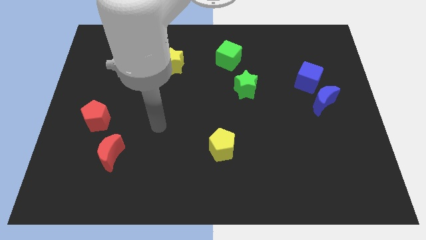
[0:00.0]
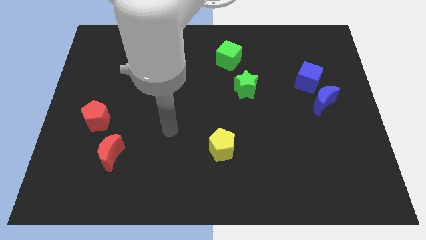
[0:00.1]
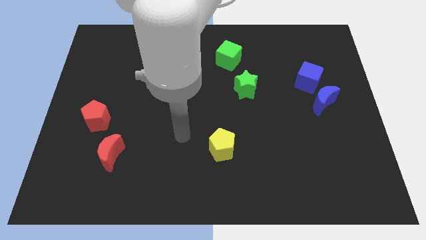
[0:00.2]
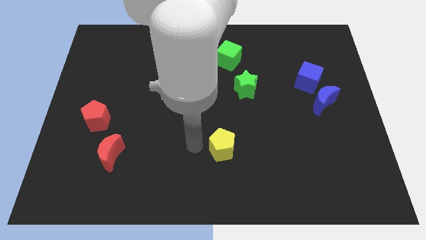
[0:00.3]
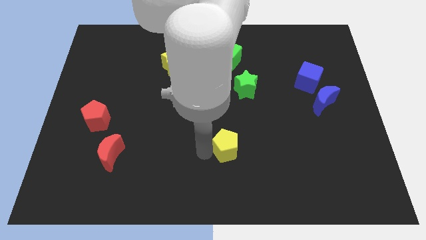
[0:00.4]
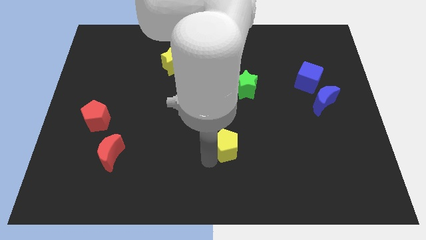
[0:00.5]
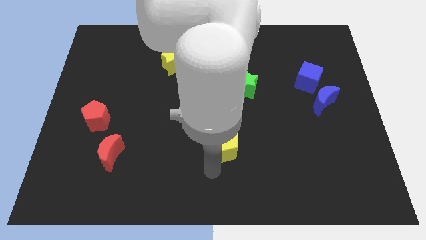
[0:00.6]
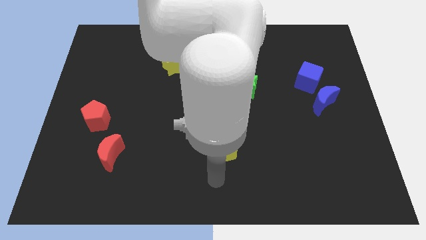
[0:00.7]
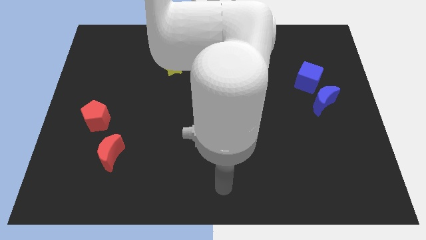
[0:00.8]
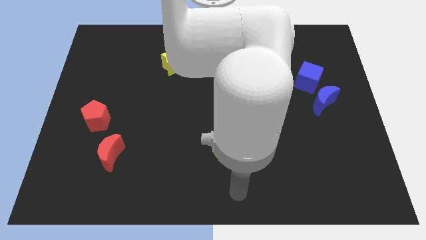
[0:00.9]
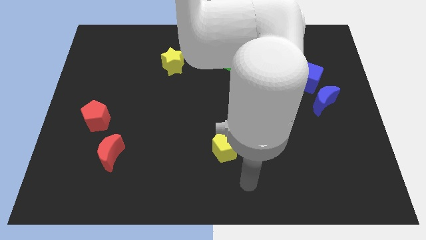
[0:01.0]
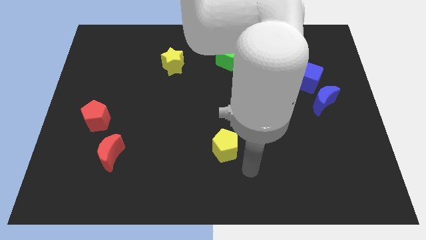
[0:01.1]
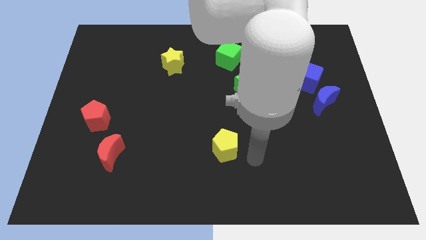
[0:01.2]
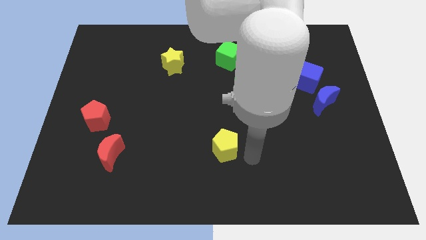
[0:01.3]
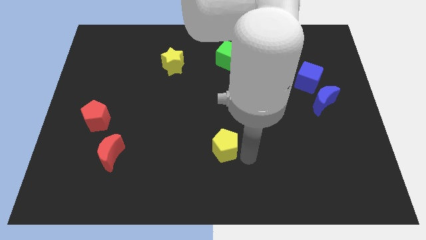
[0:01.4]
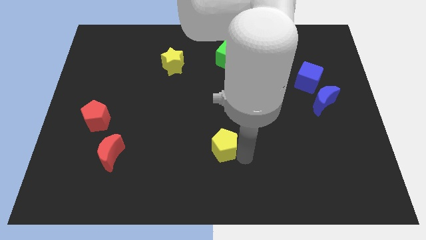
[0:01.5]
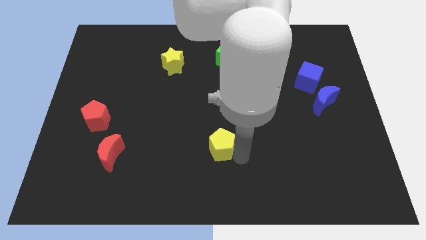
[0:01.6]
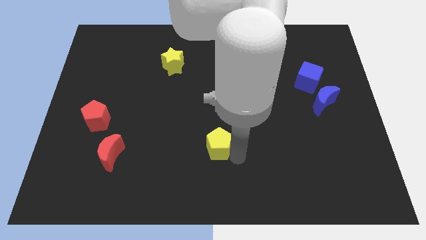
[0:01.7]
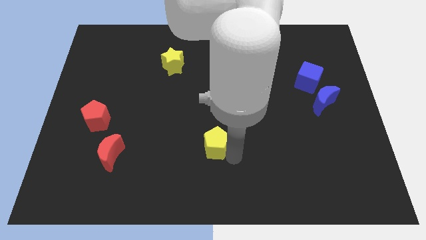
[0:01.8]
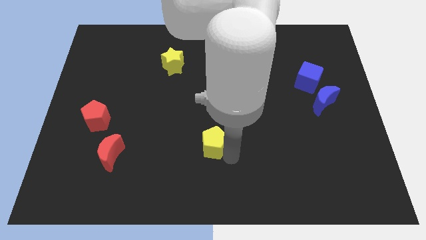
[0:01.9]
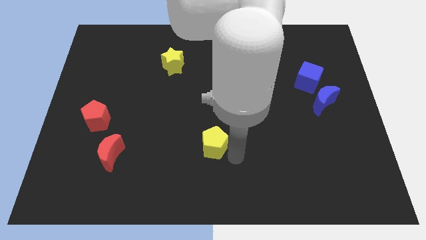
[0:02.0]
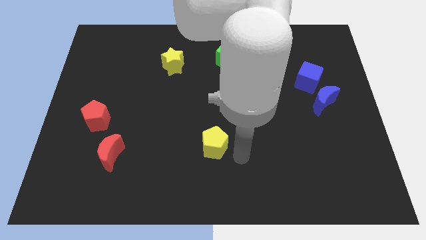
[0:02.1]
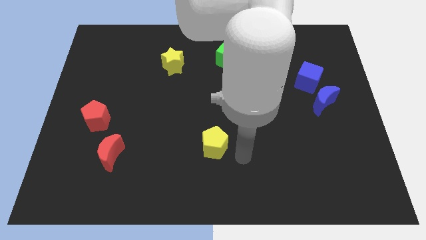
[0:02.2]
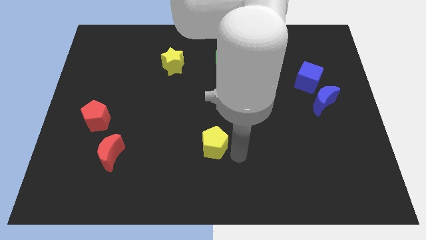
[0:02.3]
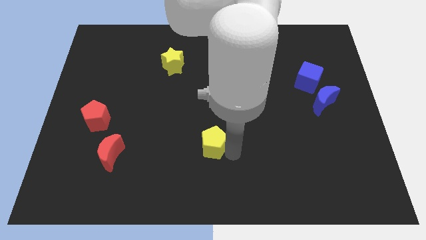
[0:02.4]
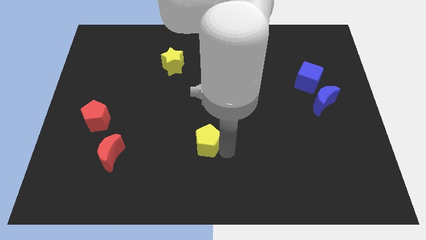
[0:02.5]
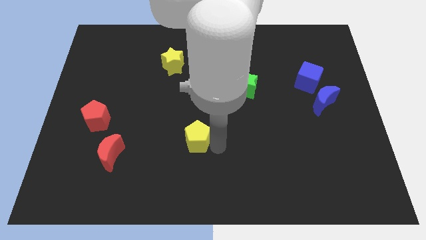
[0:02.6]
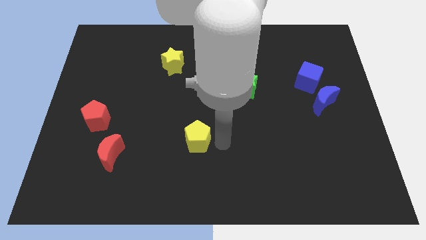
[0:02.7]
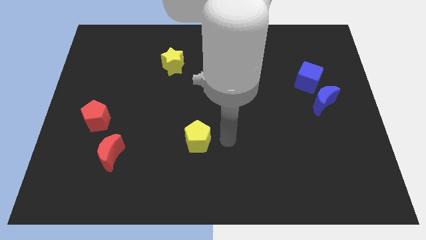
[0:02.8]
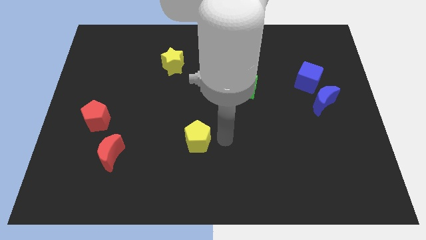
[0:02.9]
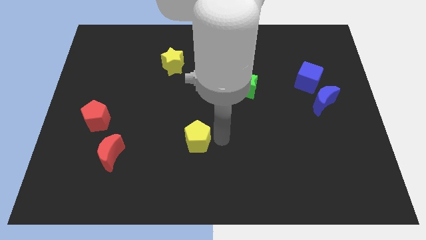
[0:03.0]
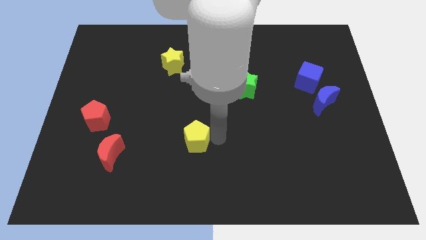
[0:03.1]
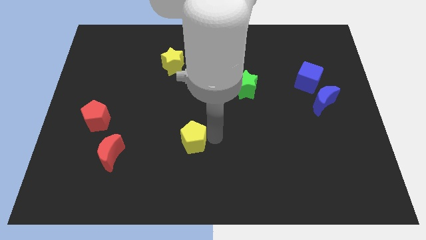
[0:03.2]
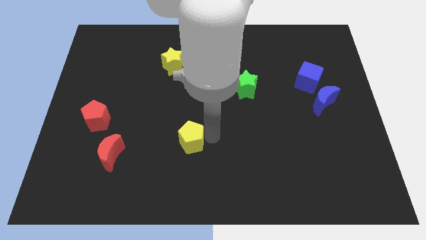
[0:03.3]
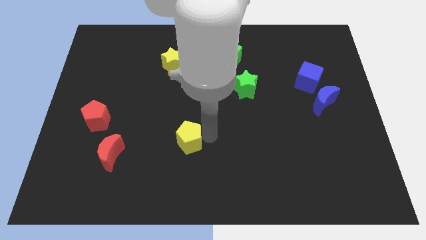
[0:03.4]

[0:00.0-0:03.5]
slightly move the yellow pentagon to the left

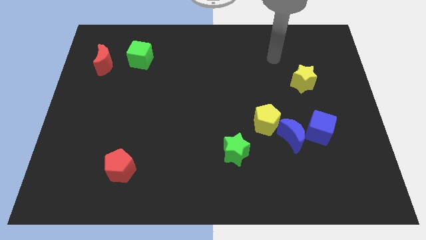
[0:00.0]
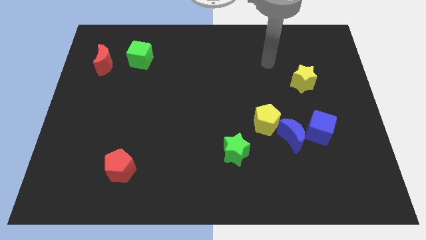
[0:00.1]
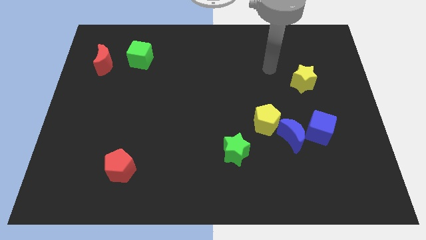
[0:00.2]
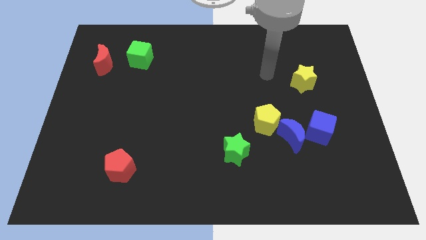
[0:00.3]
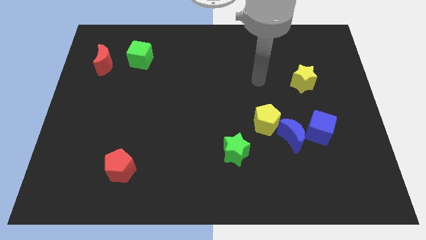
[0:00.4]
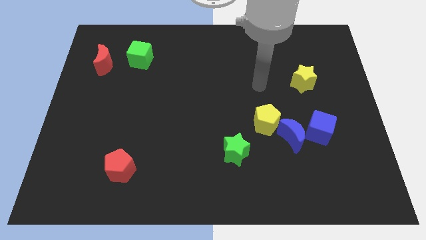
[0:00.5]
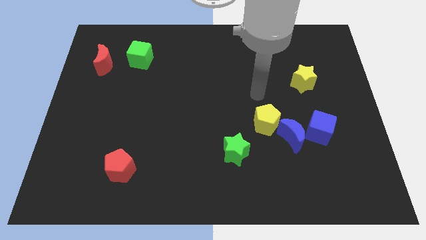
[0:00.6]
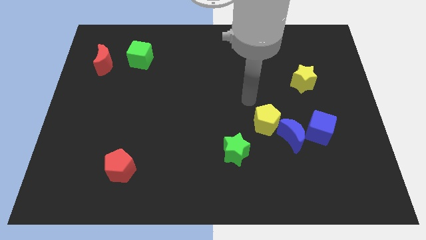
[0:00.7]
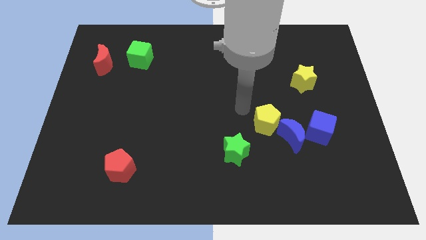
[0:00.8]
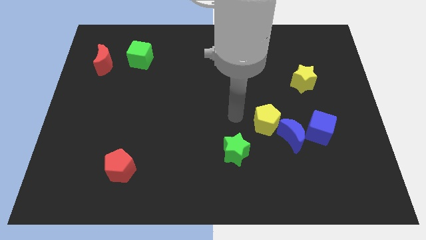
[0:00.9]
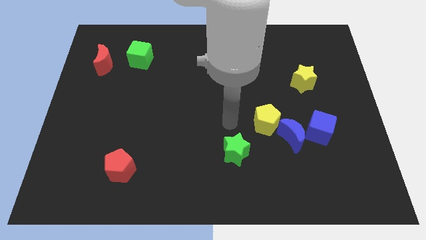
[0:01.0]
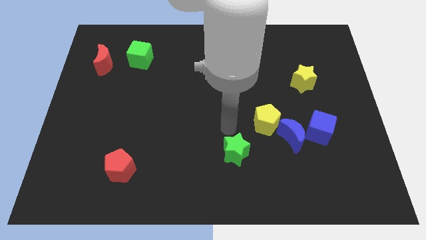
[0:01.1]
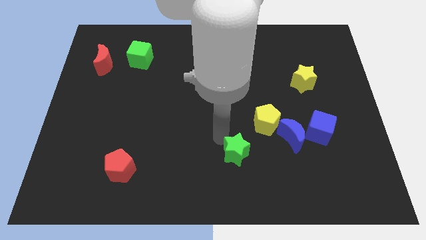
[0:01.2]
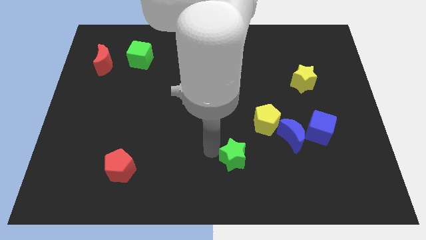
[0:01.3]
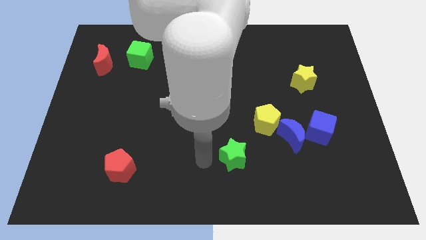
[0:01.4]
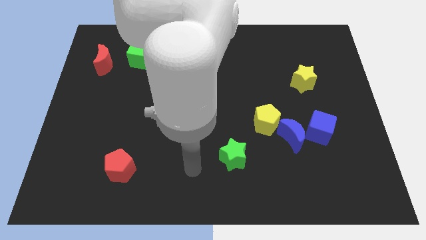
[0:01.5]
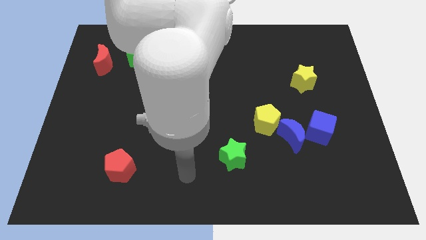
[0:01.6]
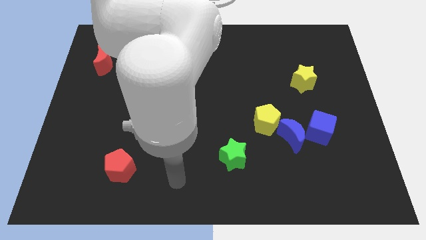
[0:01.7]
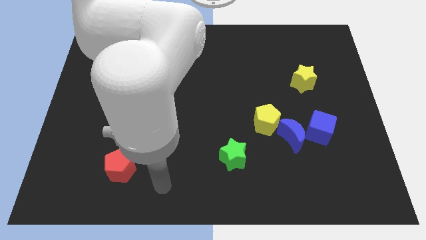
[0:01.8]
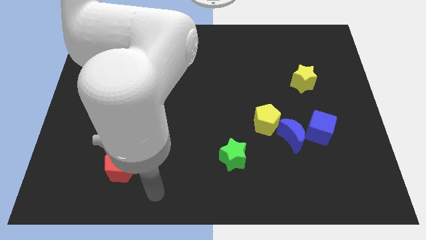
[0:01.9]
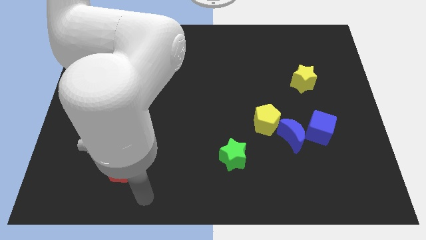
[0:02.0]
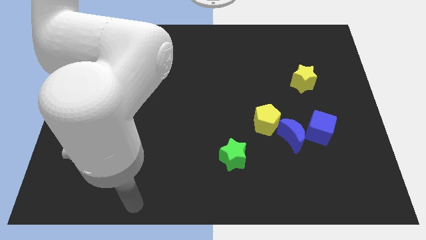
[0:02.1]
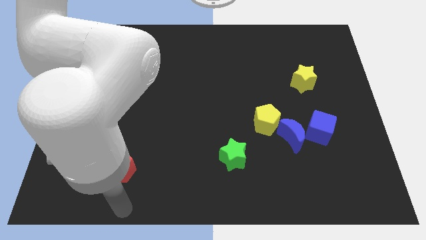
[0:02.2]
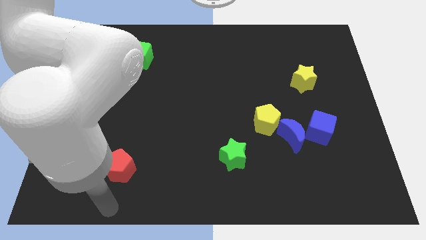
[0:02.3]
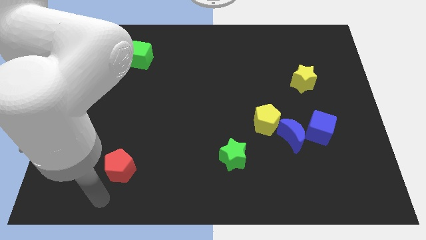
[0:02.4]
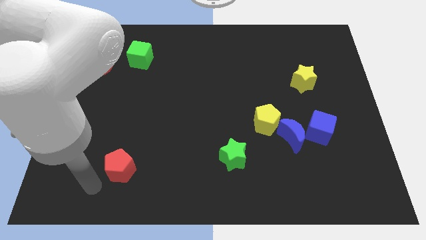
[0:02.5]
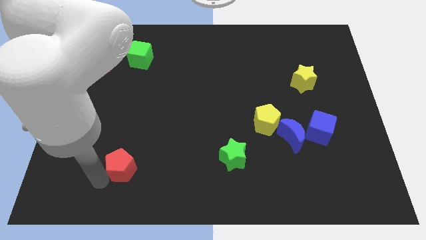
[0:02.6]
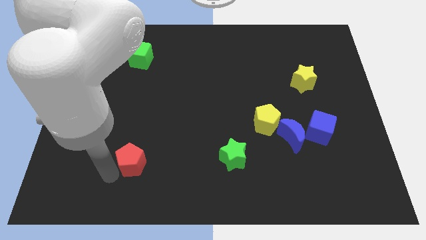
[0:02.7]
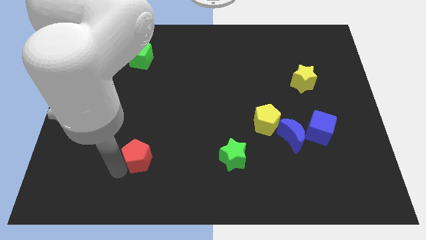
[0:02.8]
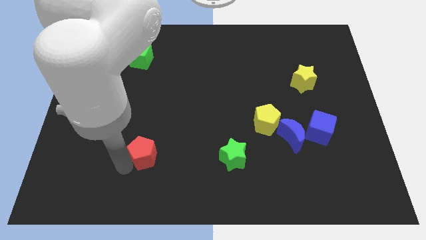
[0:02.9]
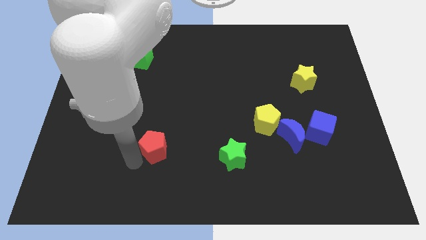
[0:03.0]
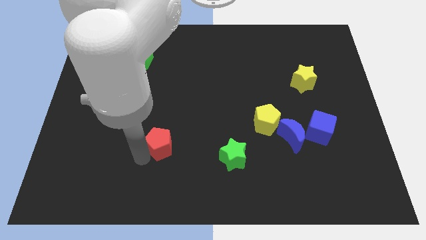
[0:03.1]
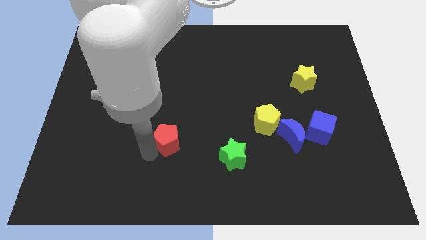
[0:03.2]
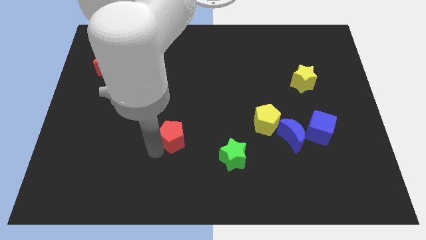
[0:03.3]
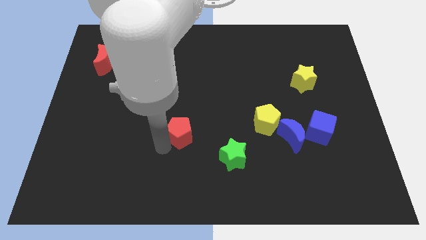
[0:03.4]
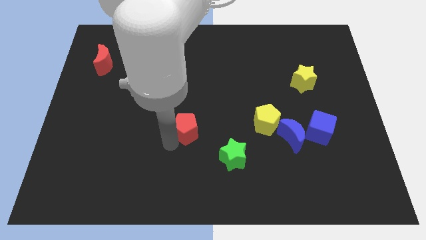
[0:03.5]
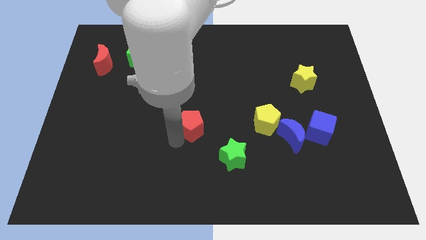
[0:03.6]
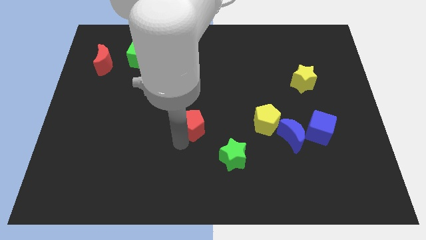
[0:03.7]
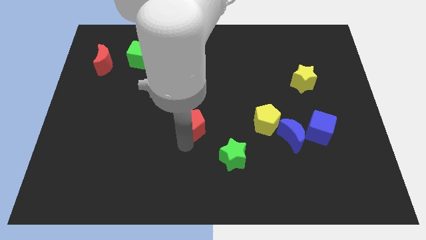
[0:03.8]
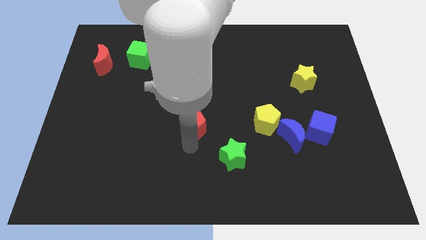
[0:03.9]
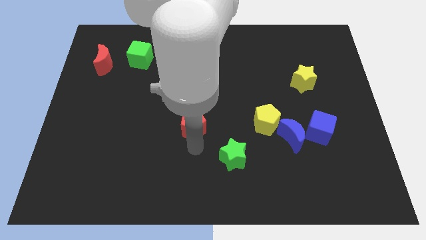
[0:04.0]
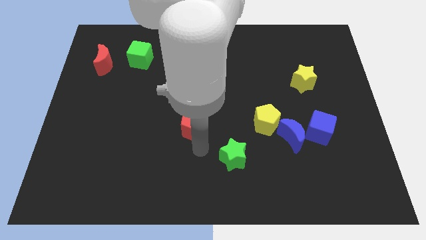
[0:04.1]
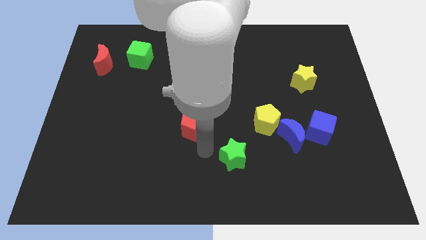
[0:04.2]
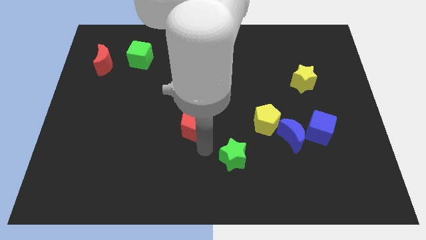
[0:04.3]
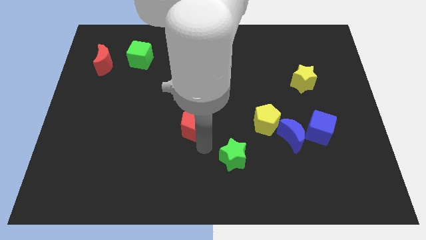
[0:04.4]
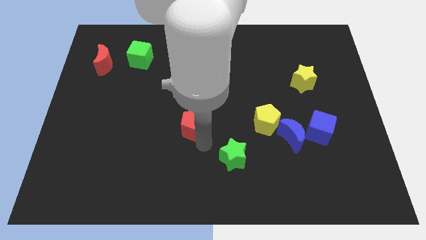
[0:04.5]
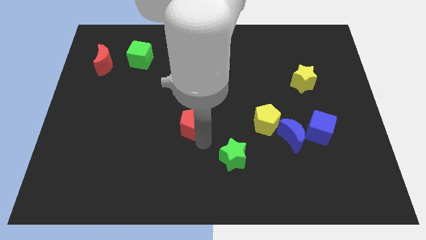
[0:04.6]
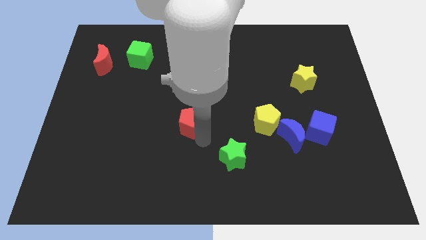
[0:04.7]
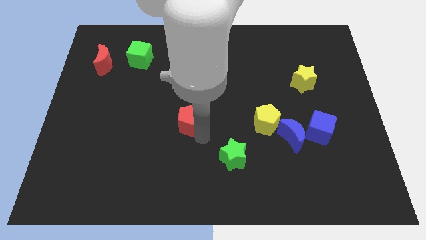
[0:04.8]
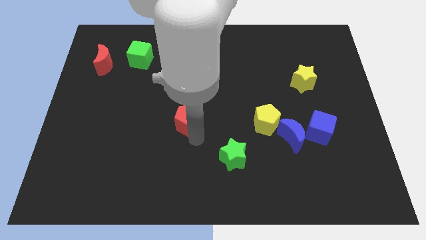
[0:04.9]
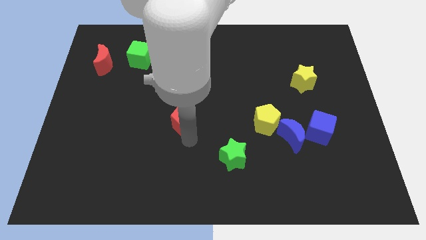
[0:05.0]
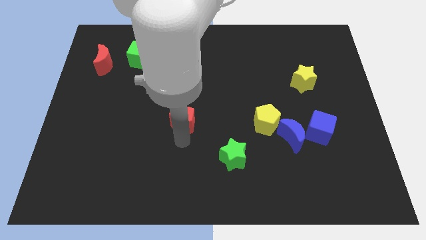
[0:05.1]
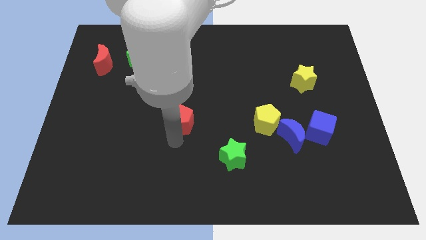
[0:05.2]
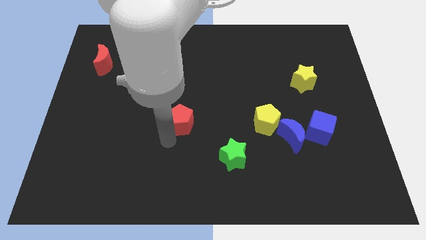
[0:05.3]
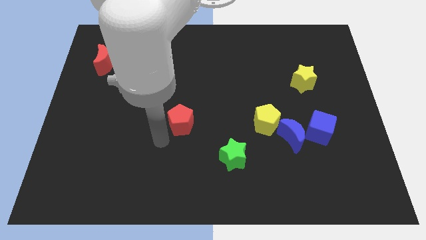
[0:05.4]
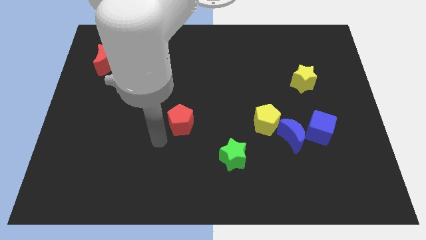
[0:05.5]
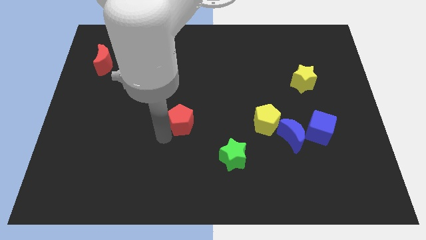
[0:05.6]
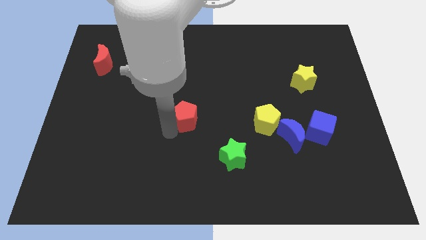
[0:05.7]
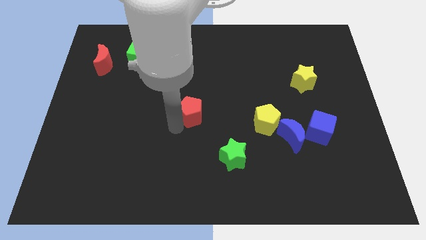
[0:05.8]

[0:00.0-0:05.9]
push the red pentagon up and to the right
